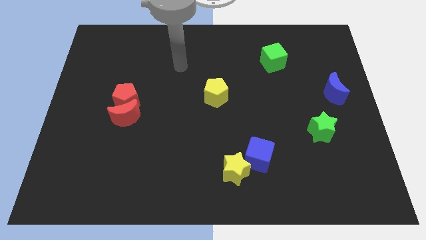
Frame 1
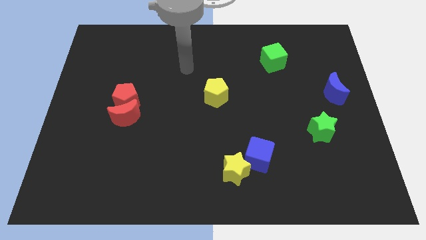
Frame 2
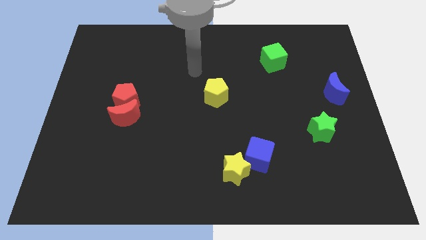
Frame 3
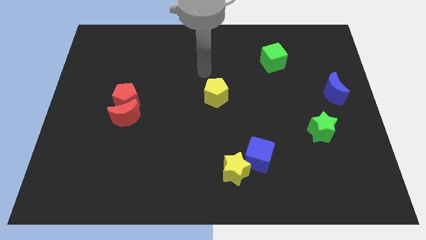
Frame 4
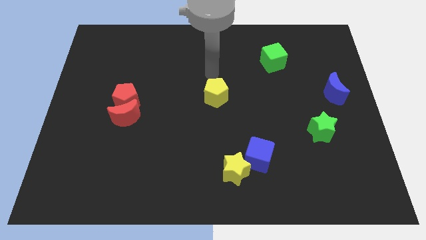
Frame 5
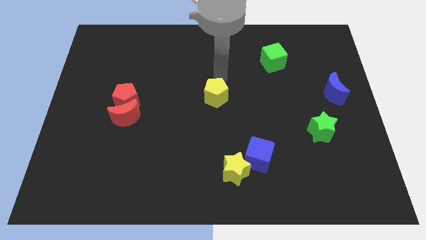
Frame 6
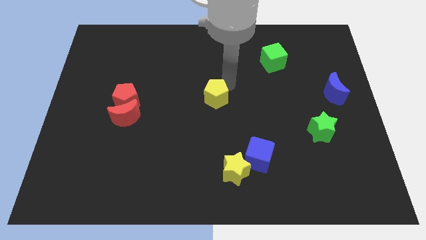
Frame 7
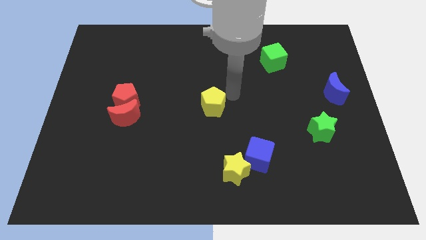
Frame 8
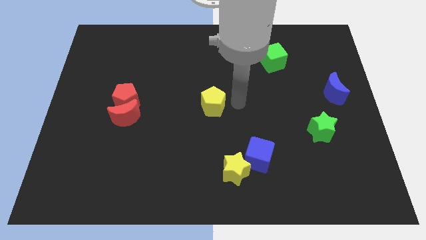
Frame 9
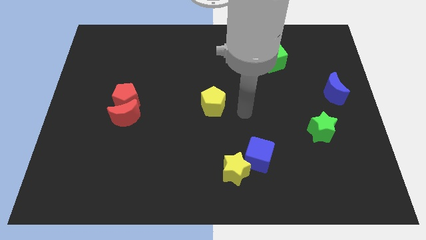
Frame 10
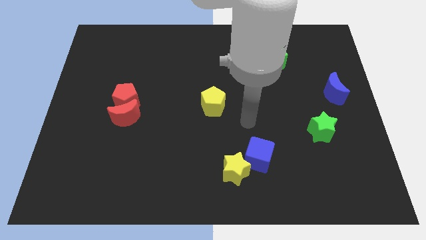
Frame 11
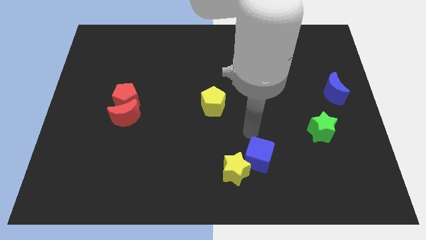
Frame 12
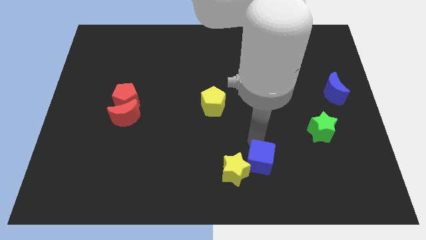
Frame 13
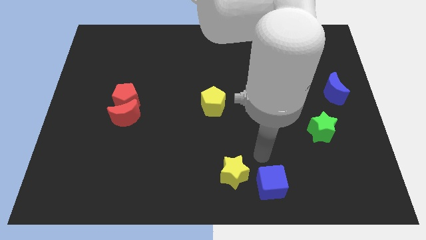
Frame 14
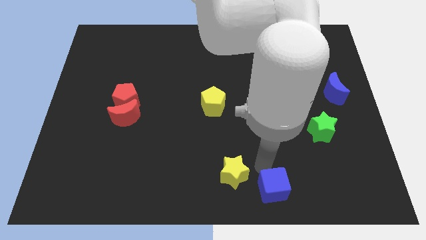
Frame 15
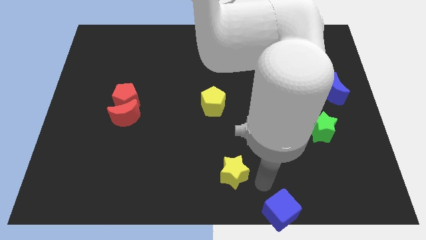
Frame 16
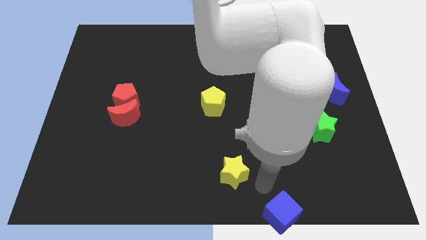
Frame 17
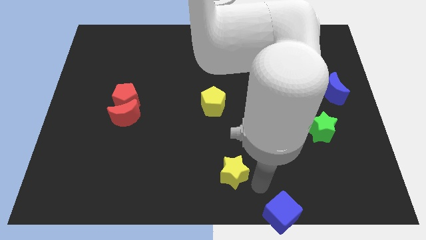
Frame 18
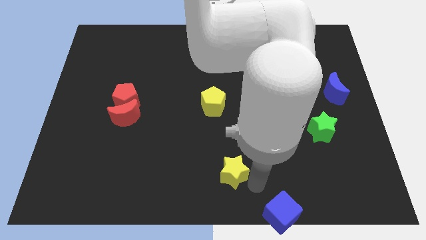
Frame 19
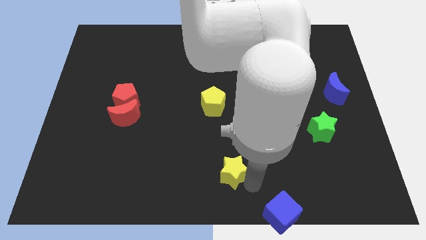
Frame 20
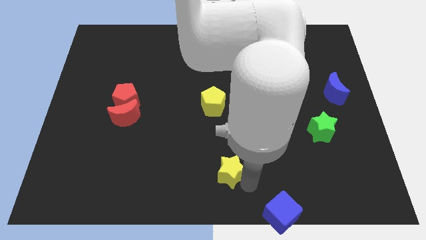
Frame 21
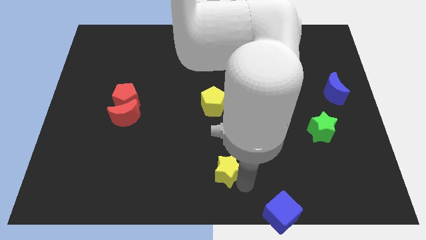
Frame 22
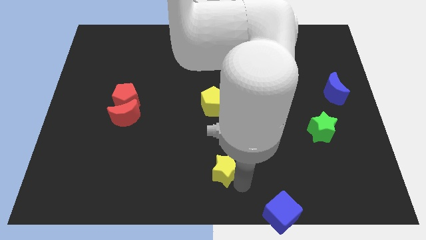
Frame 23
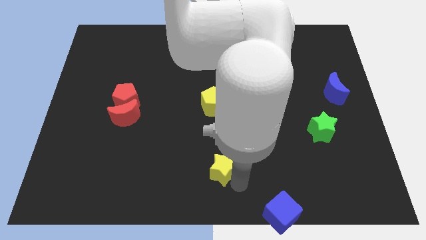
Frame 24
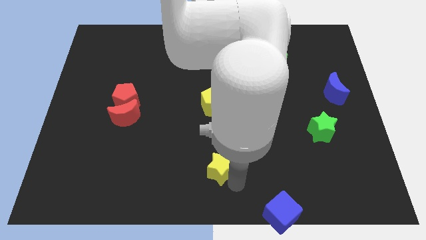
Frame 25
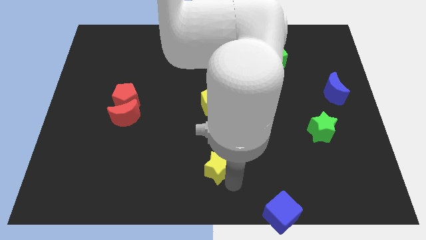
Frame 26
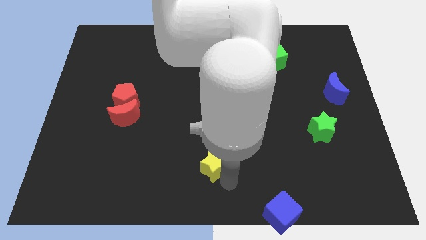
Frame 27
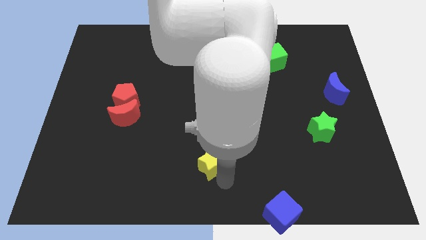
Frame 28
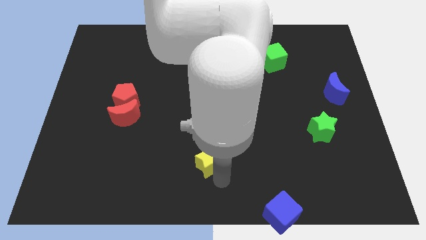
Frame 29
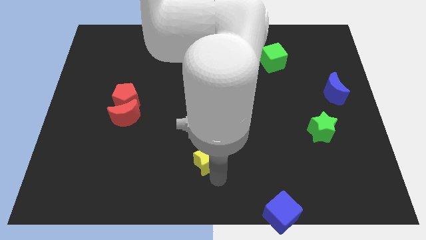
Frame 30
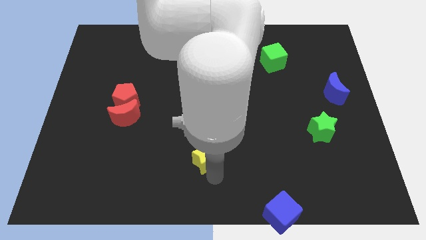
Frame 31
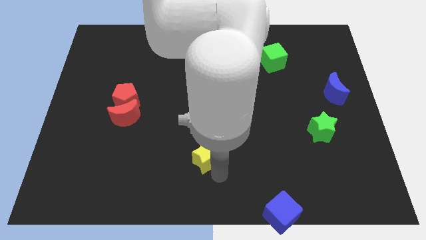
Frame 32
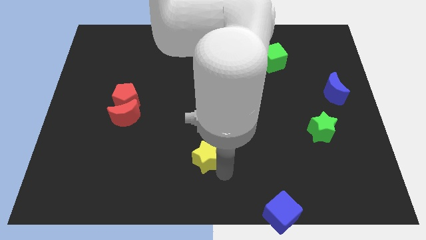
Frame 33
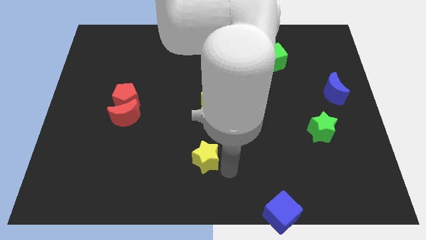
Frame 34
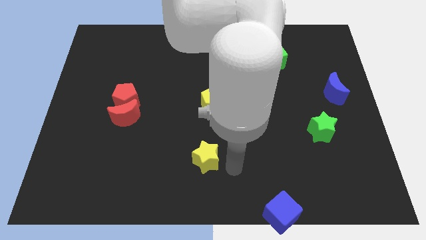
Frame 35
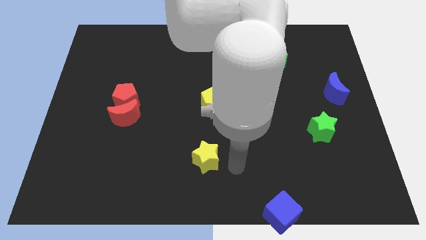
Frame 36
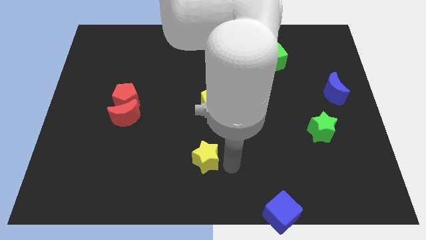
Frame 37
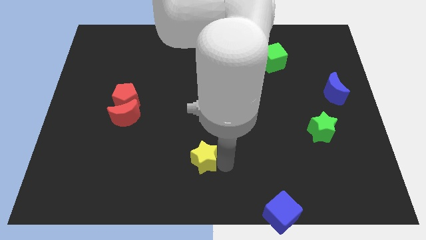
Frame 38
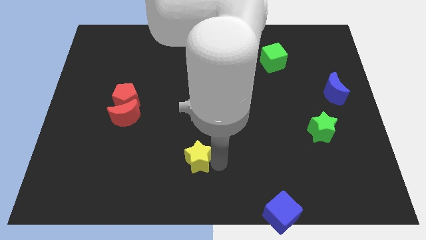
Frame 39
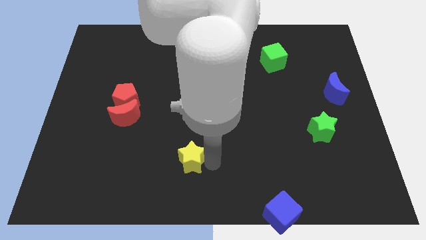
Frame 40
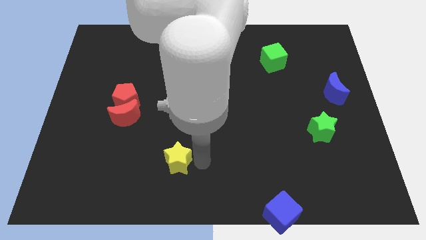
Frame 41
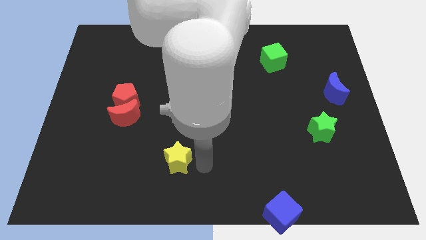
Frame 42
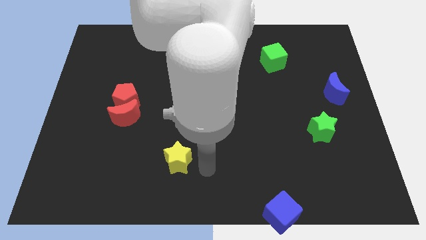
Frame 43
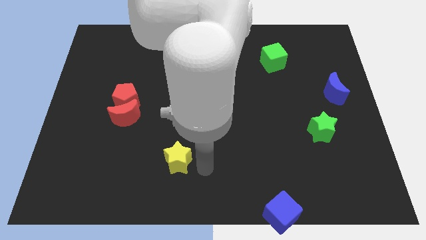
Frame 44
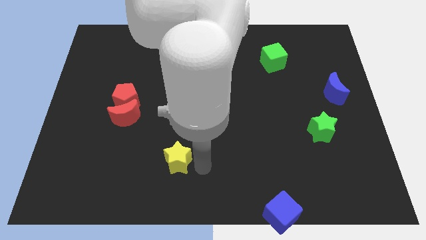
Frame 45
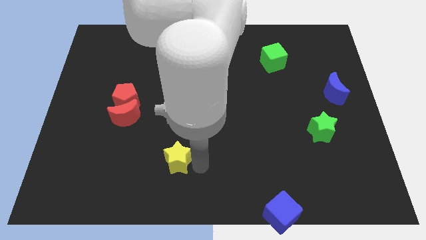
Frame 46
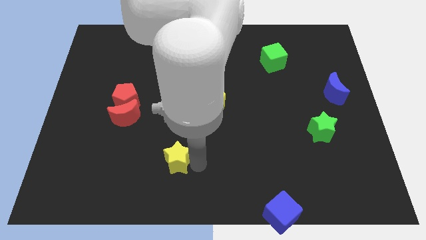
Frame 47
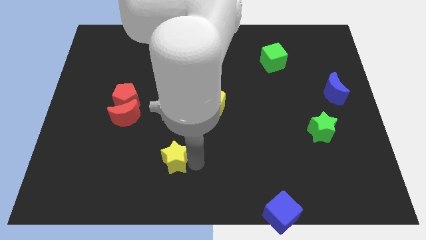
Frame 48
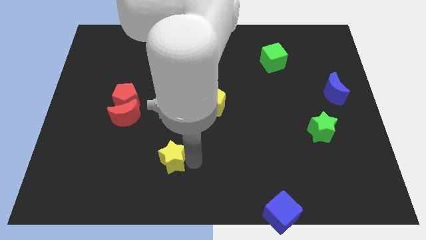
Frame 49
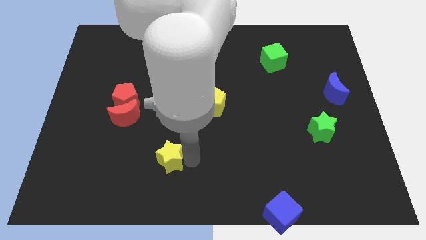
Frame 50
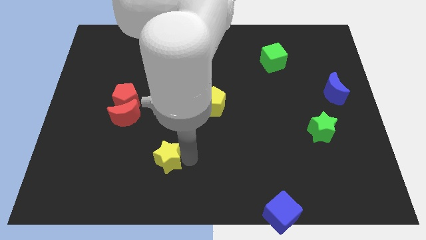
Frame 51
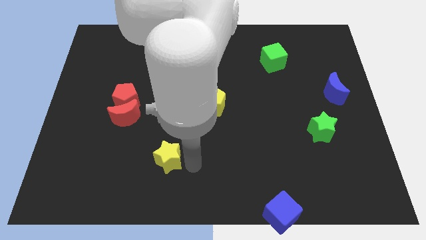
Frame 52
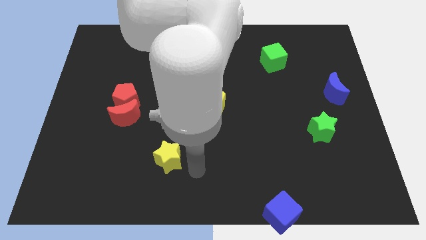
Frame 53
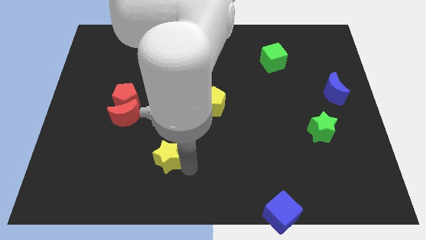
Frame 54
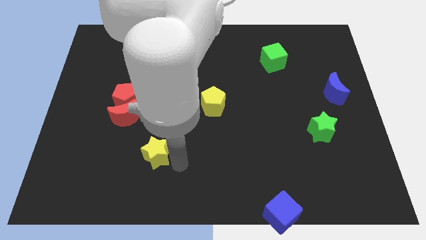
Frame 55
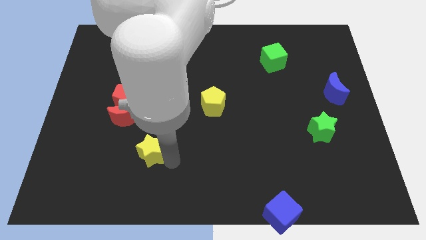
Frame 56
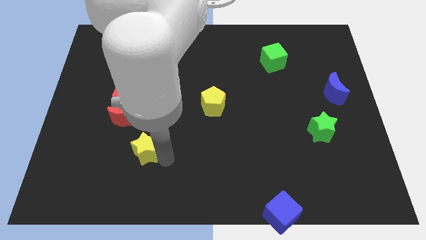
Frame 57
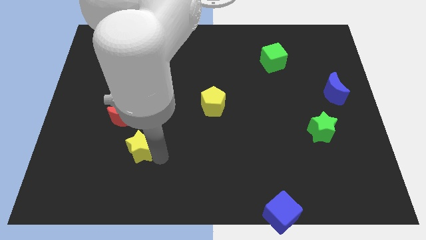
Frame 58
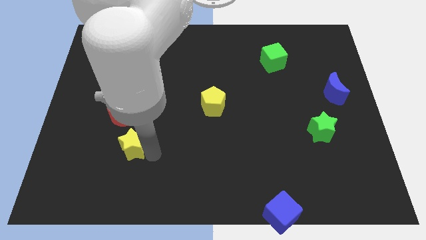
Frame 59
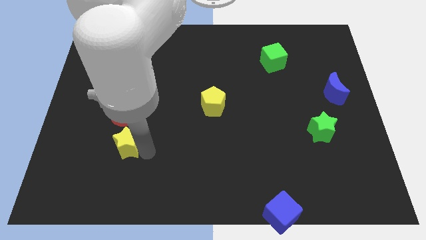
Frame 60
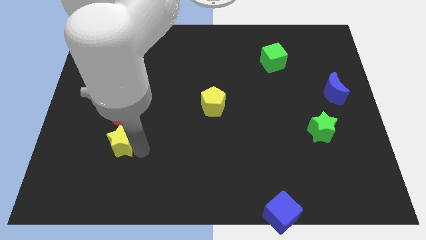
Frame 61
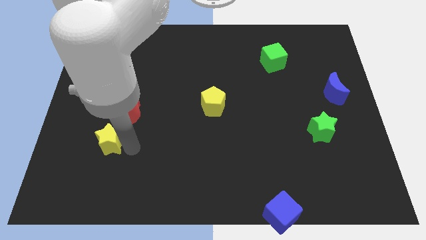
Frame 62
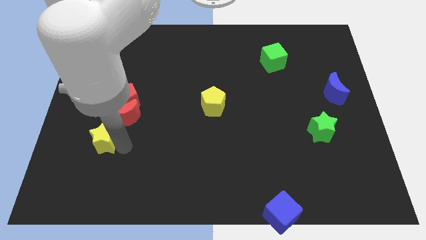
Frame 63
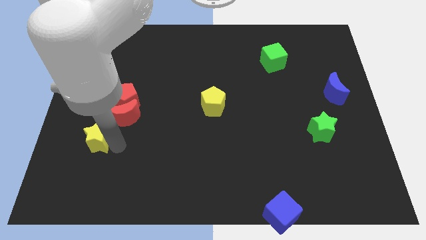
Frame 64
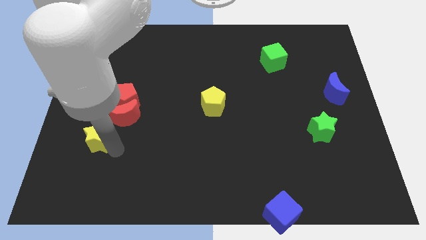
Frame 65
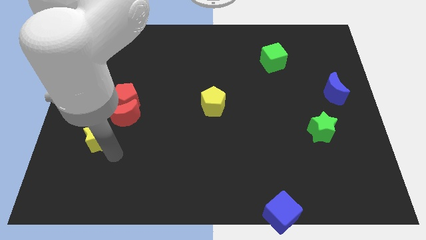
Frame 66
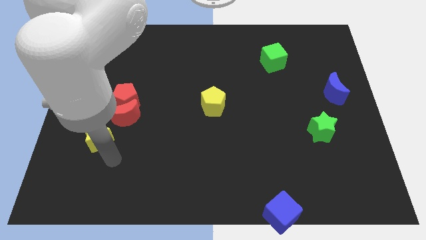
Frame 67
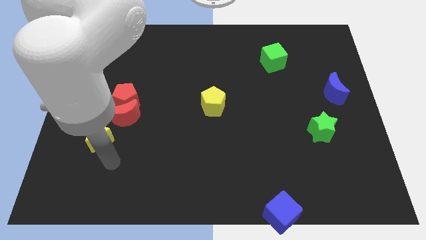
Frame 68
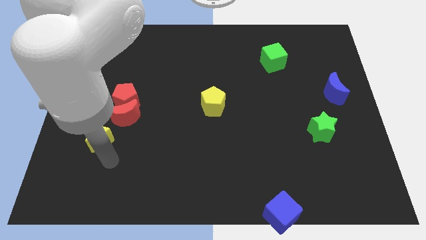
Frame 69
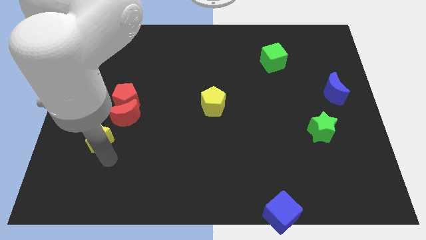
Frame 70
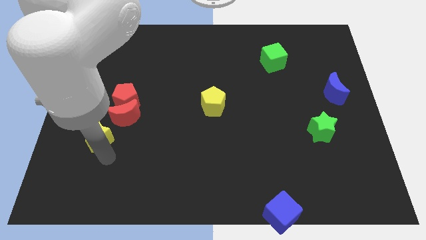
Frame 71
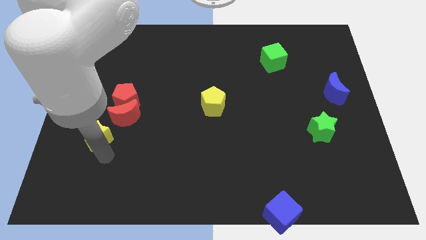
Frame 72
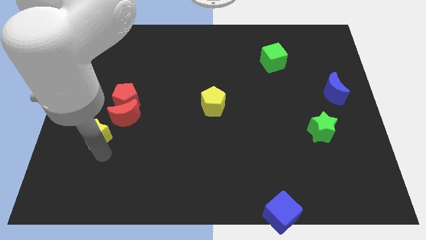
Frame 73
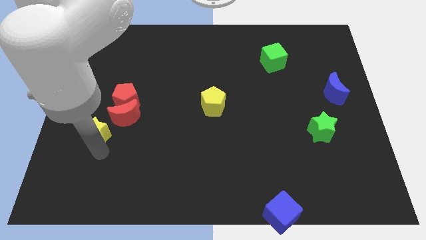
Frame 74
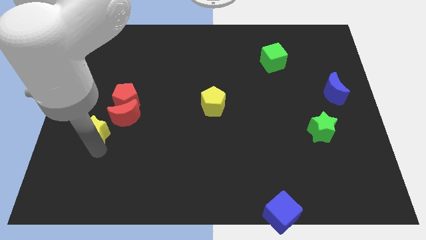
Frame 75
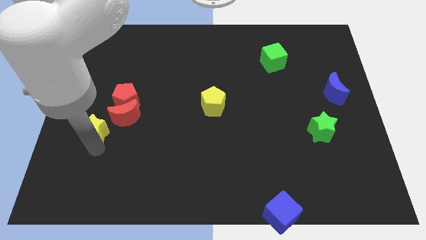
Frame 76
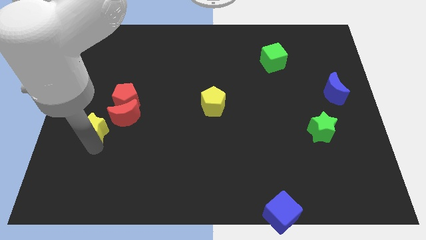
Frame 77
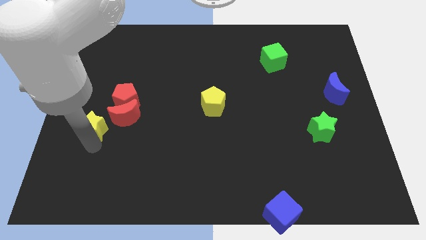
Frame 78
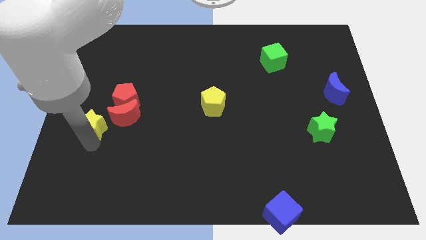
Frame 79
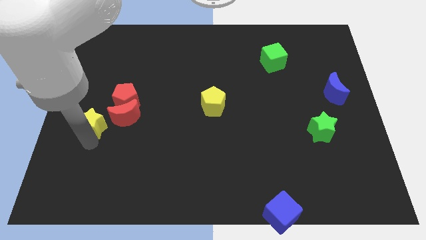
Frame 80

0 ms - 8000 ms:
slide the yellow star to the center left
